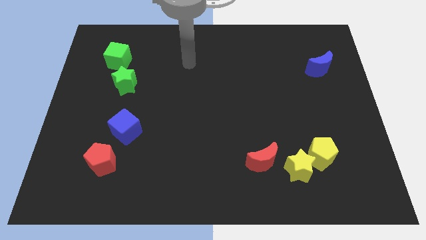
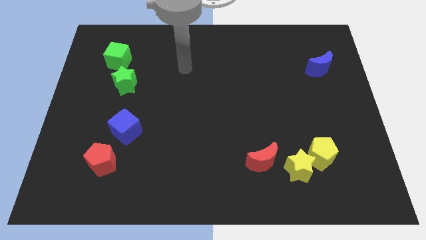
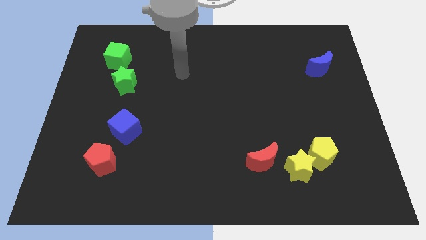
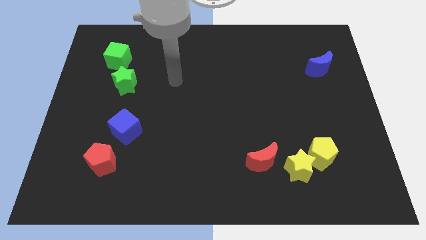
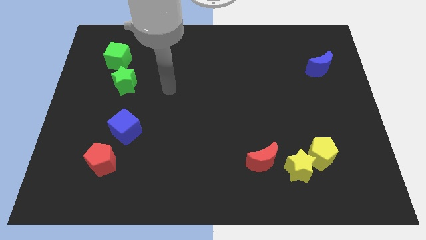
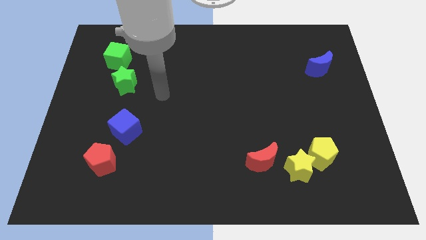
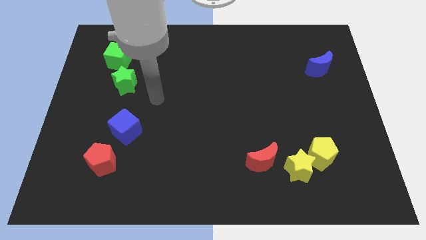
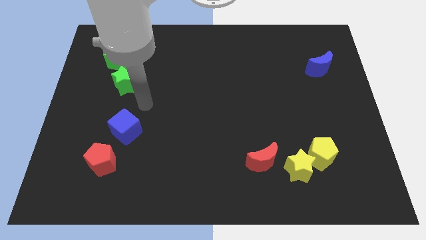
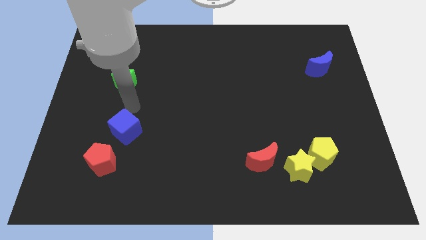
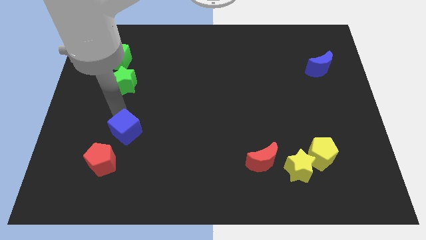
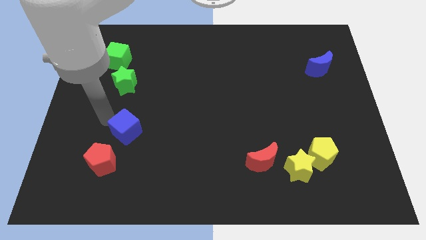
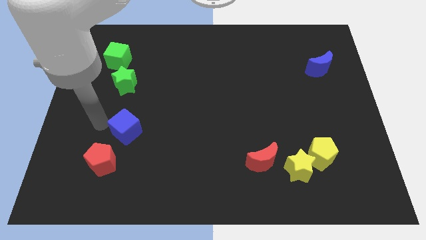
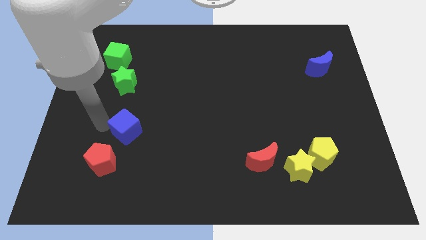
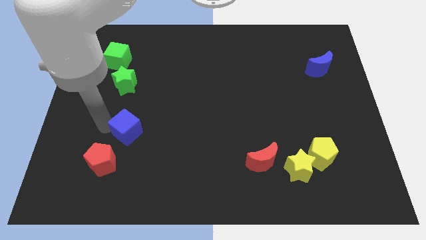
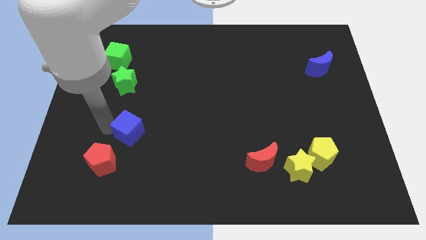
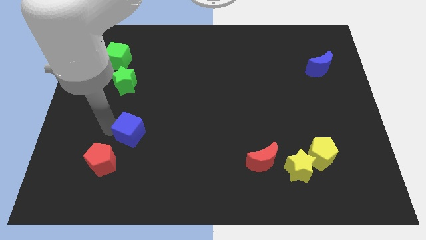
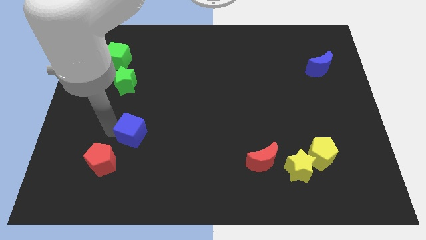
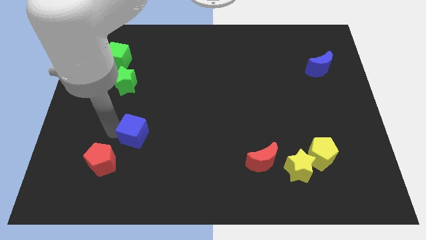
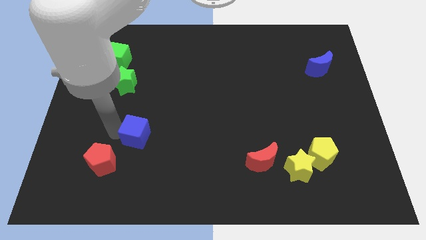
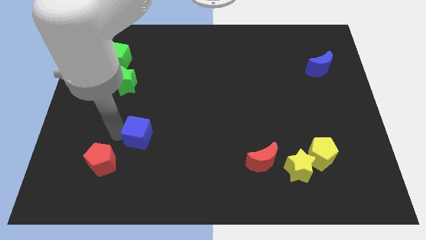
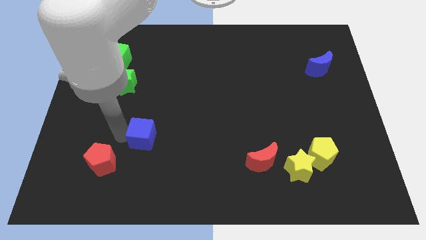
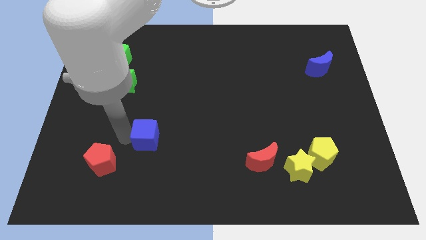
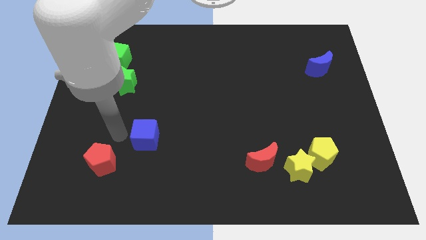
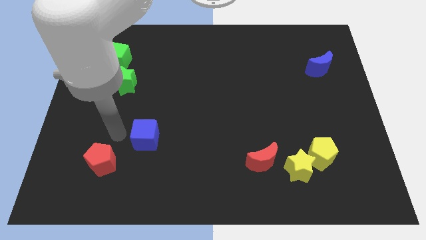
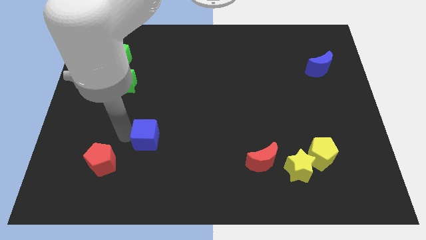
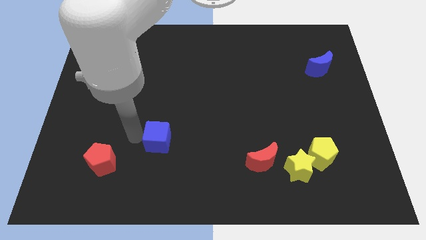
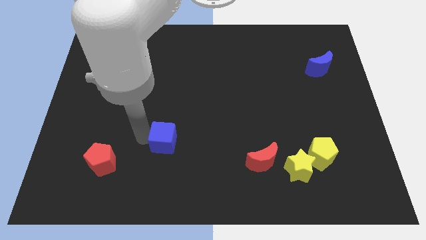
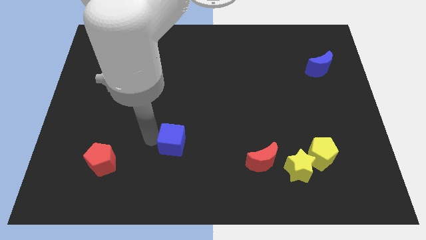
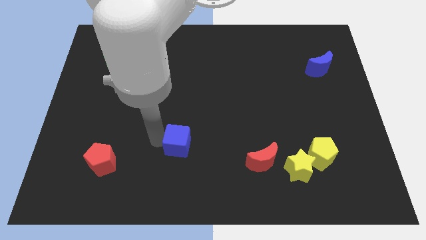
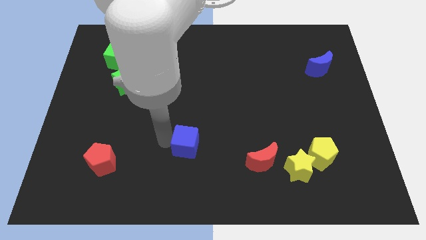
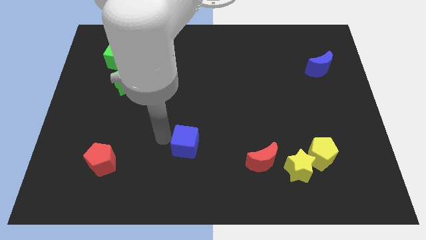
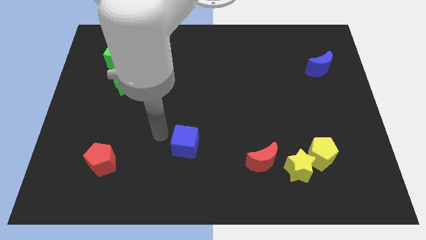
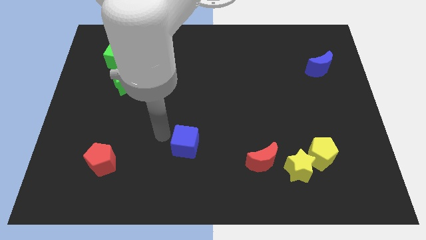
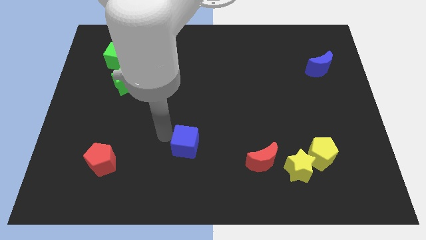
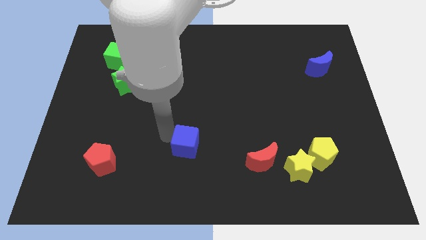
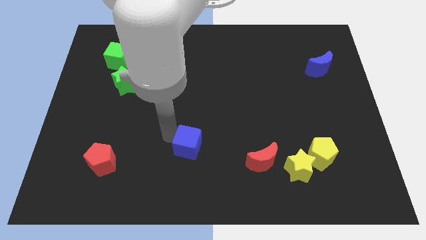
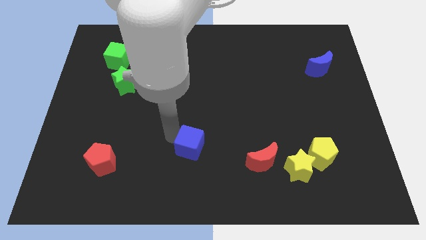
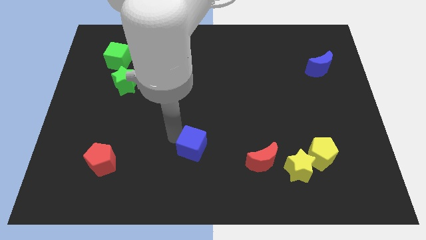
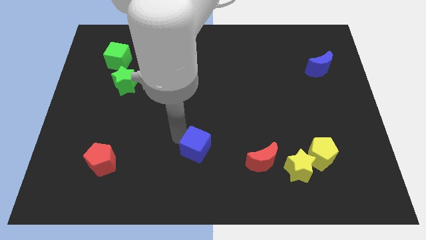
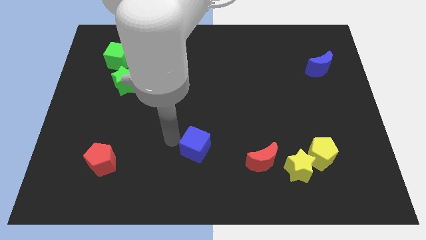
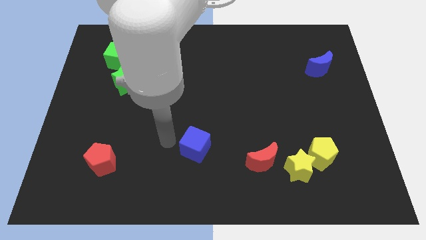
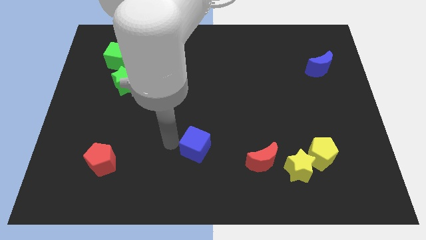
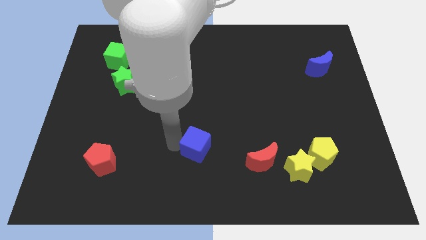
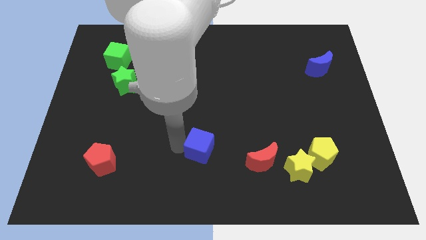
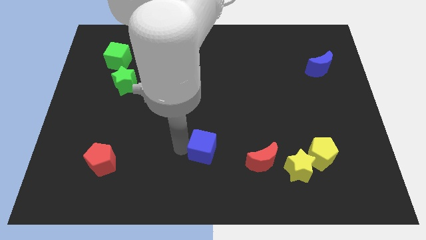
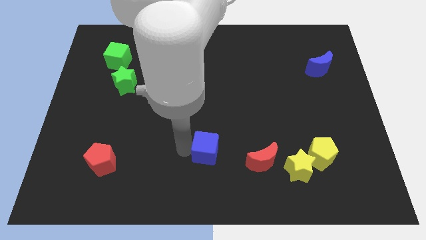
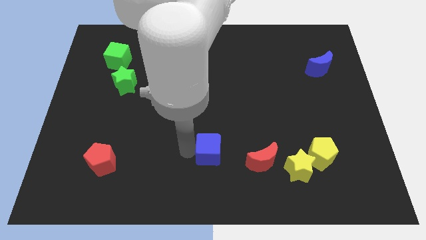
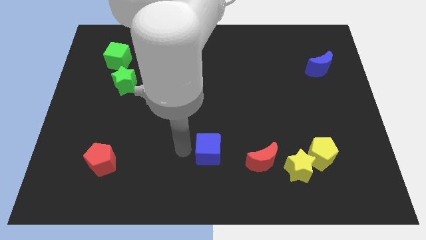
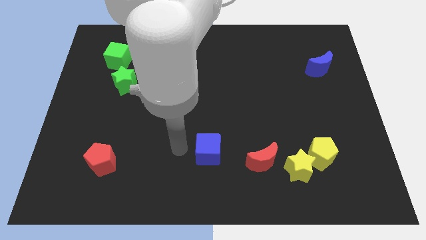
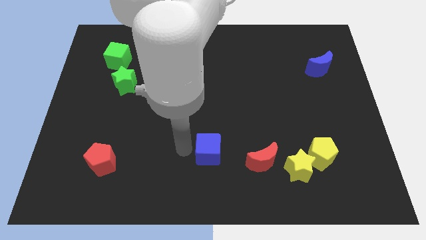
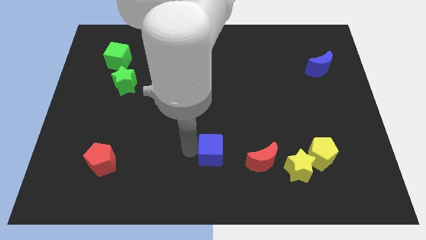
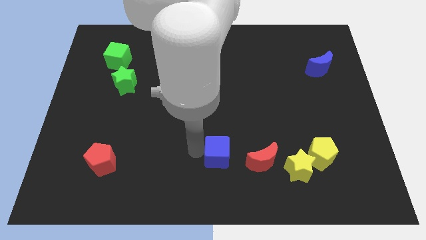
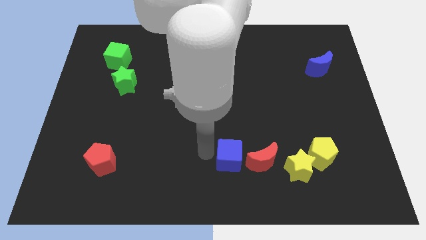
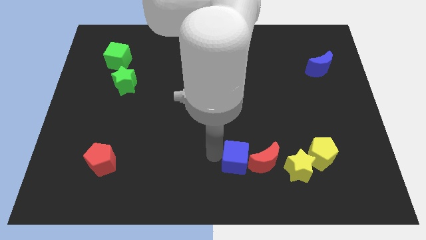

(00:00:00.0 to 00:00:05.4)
slide the blue cube to the red moon

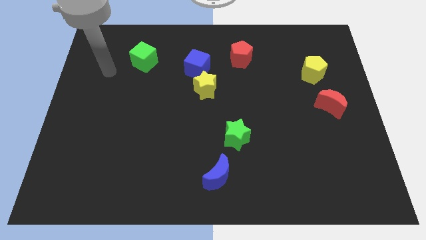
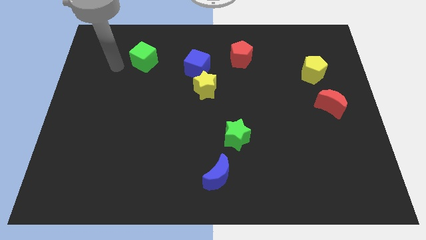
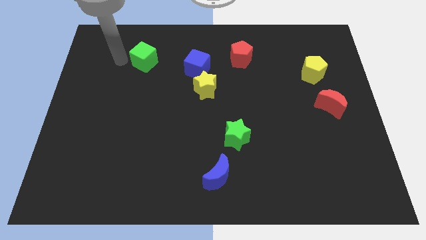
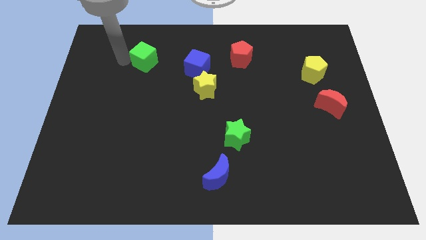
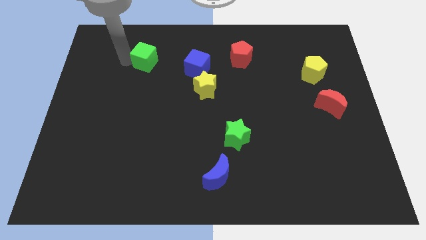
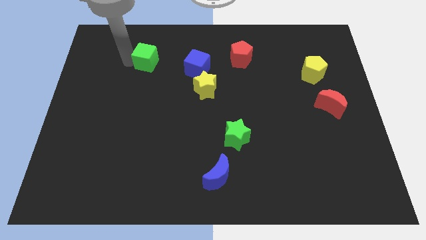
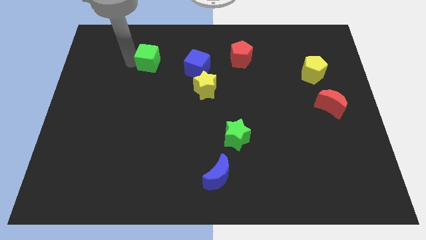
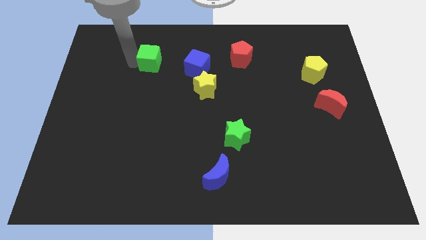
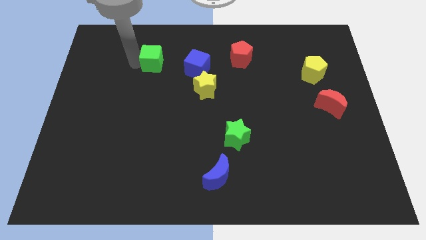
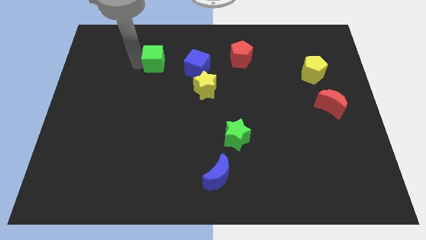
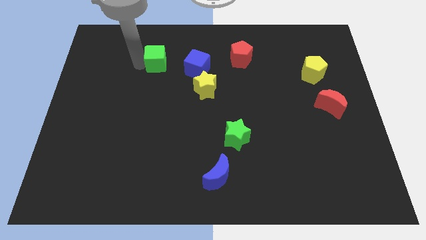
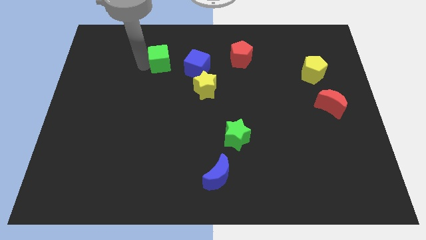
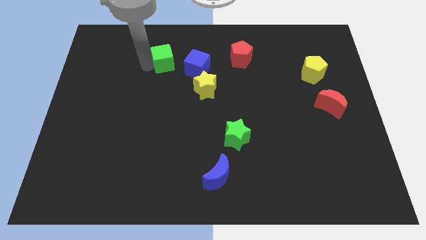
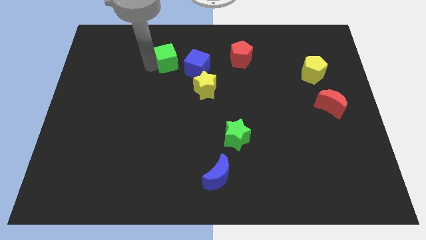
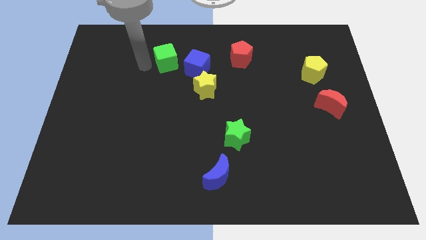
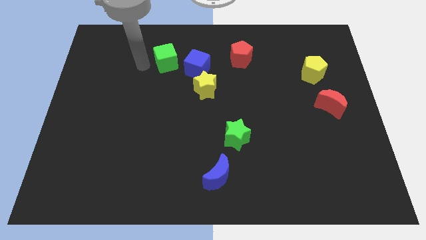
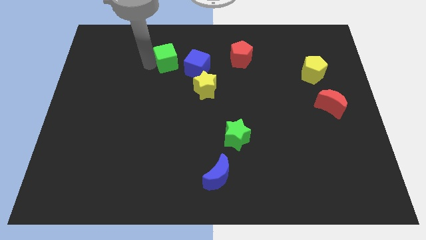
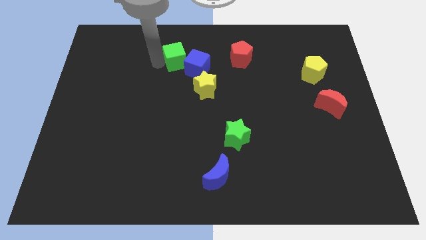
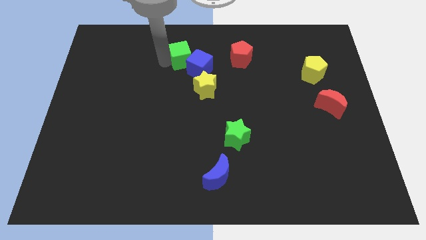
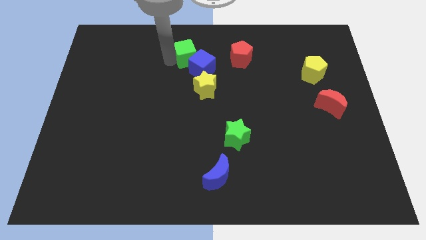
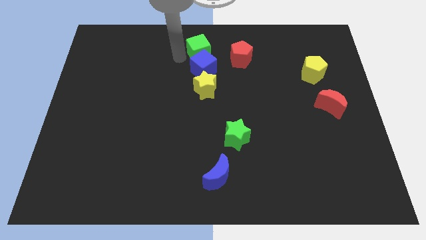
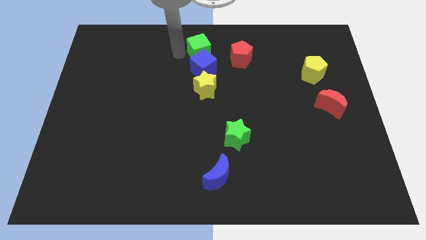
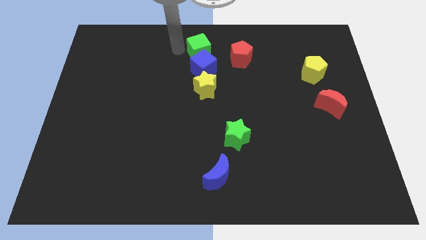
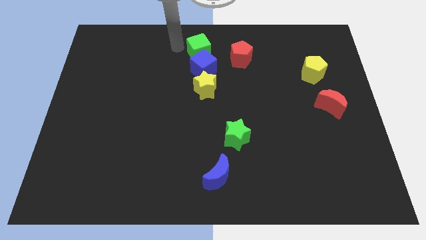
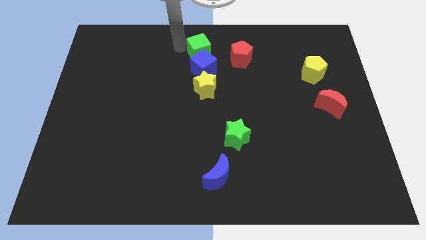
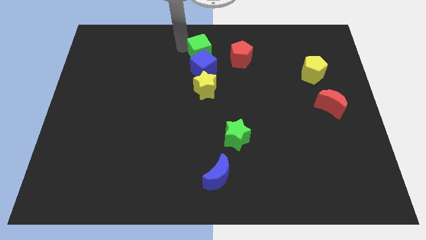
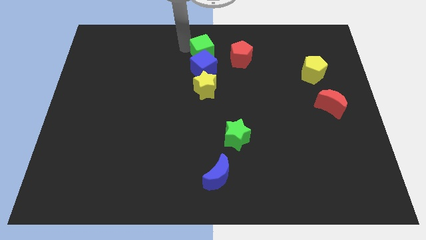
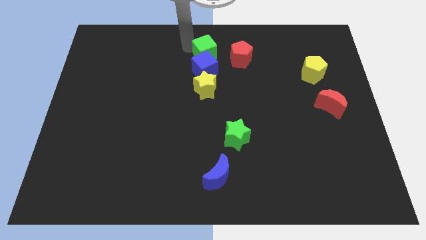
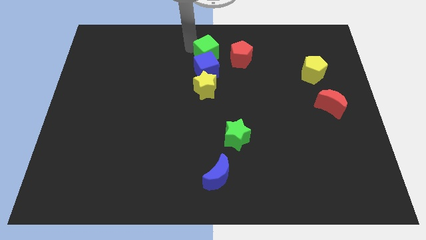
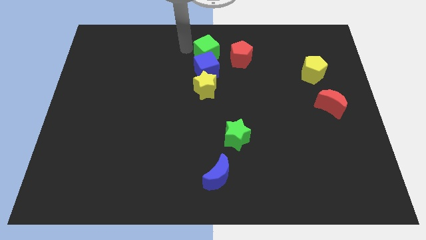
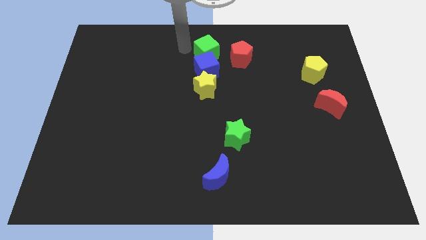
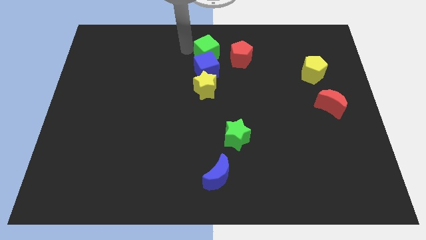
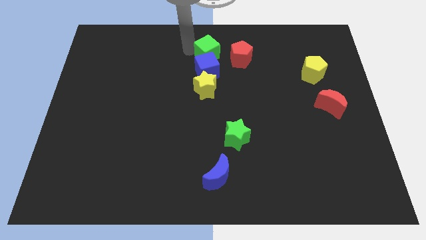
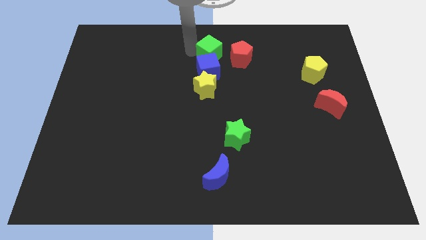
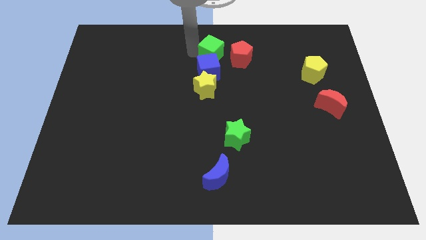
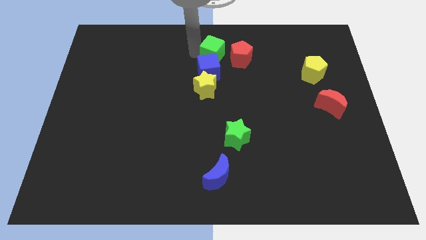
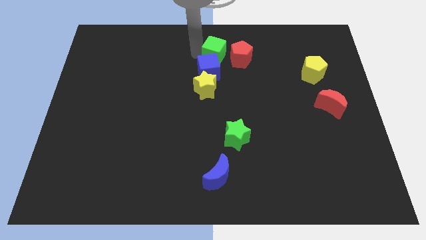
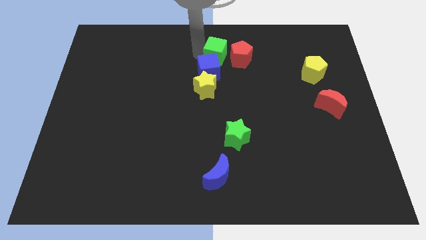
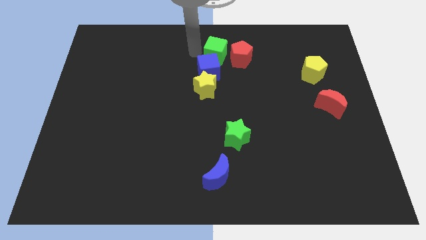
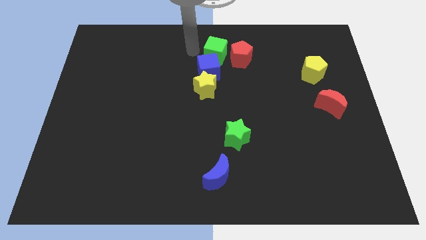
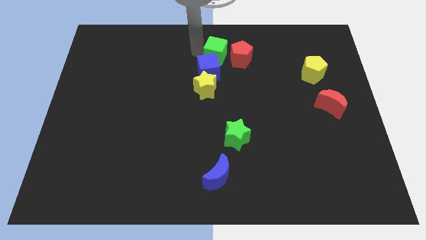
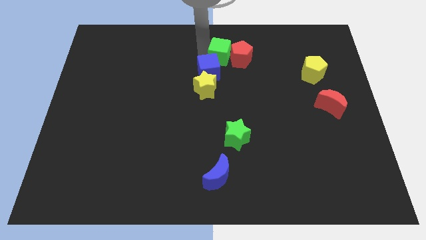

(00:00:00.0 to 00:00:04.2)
push the green cube close to the red pentagon
